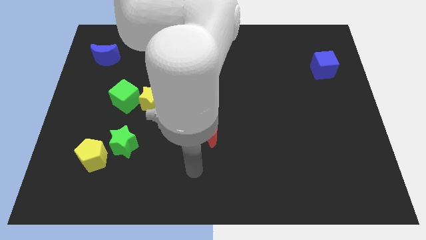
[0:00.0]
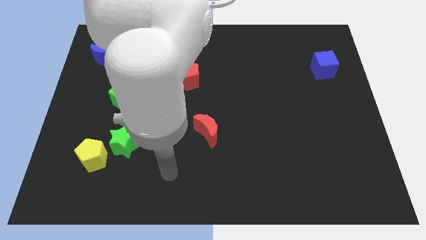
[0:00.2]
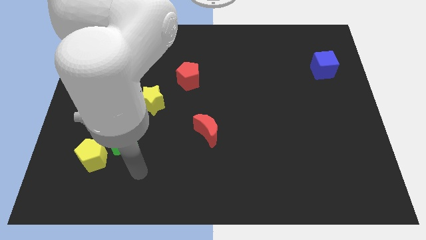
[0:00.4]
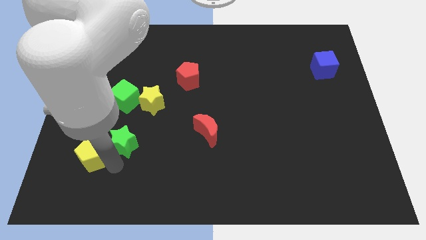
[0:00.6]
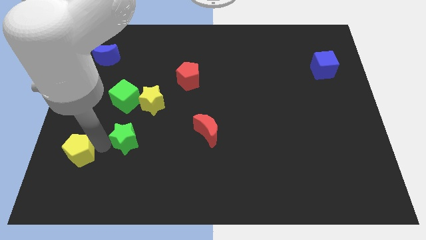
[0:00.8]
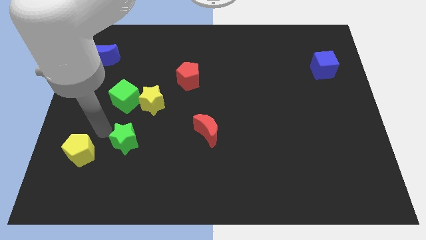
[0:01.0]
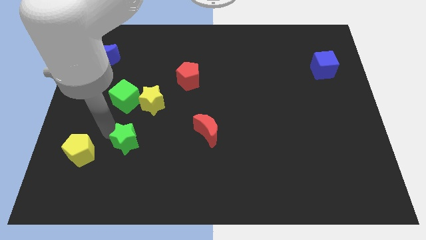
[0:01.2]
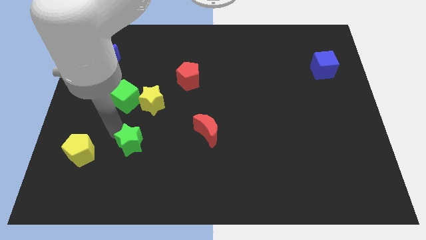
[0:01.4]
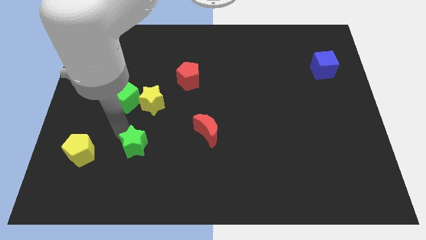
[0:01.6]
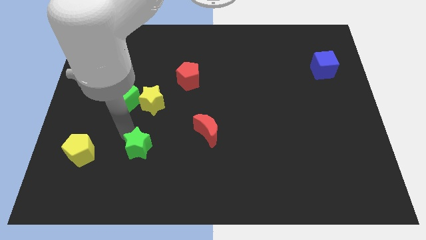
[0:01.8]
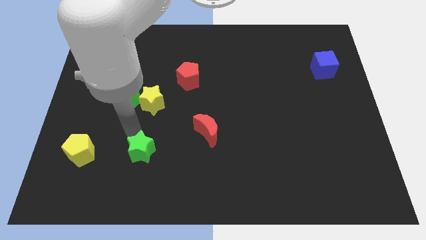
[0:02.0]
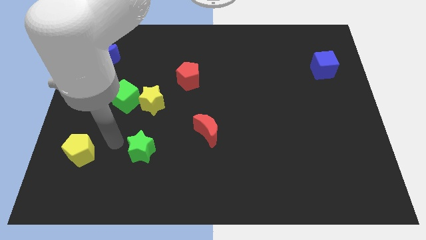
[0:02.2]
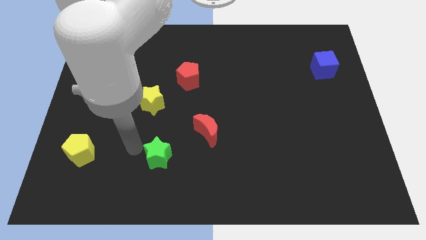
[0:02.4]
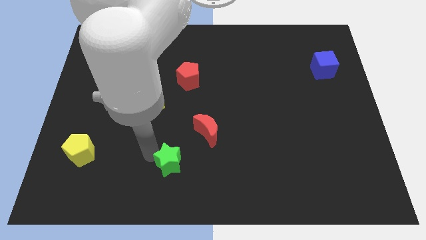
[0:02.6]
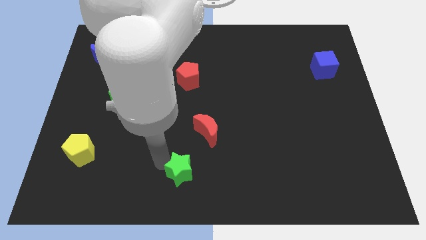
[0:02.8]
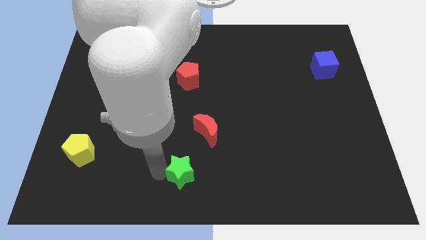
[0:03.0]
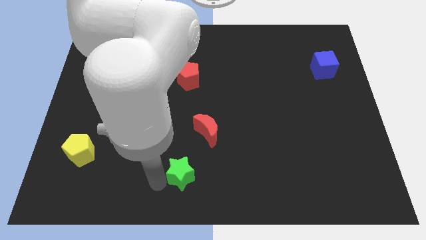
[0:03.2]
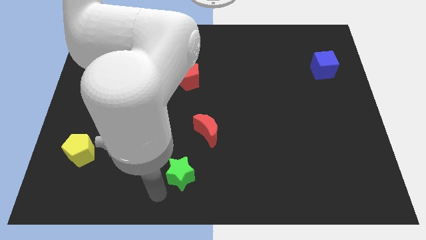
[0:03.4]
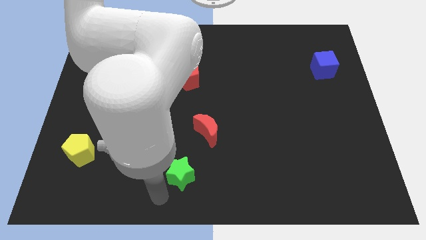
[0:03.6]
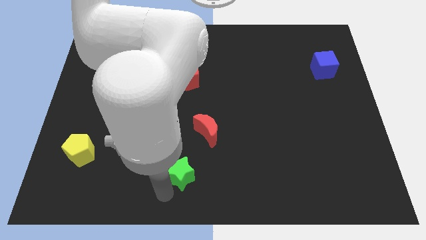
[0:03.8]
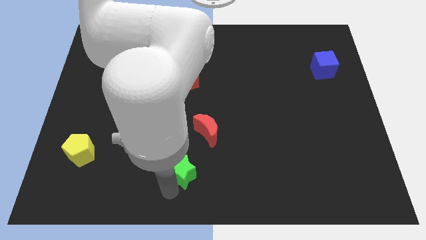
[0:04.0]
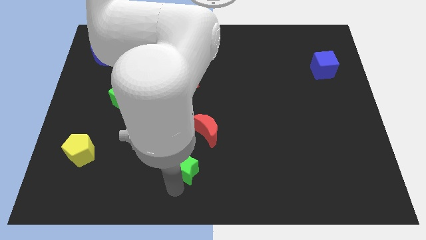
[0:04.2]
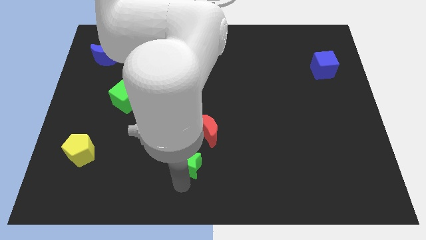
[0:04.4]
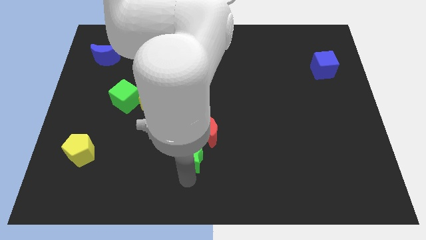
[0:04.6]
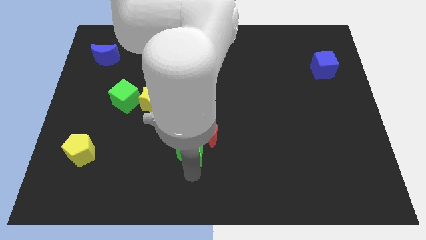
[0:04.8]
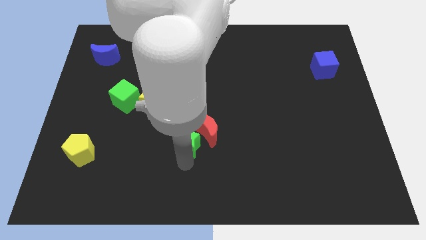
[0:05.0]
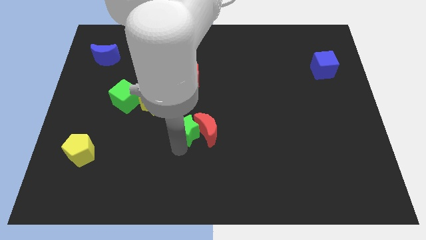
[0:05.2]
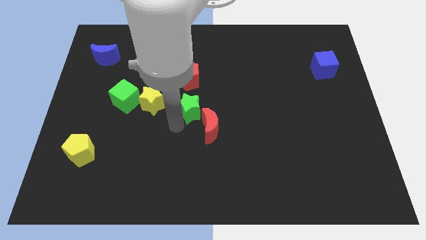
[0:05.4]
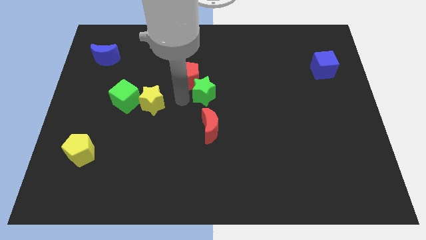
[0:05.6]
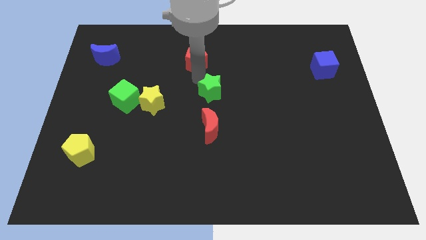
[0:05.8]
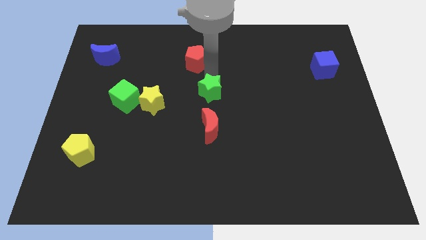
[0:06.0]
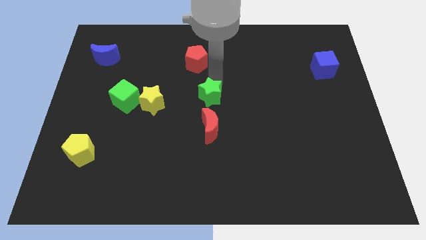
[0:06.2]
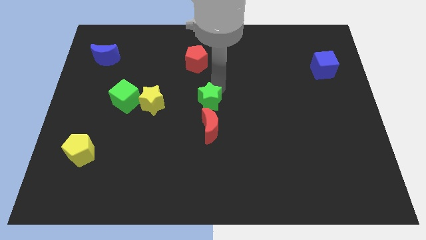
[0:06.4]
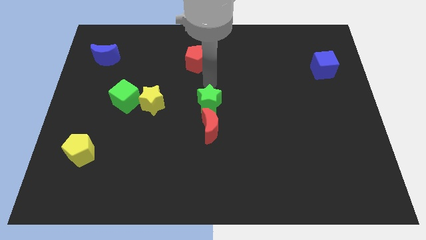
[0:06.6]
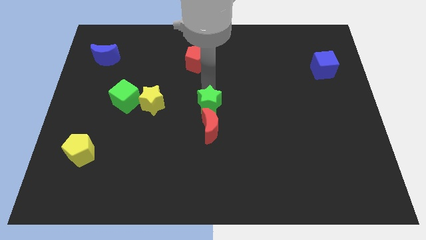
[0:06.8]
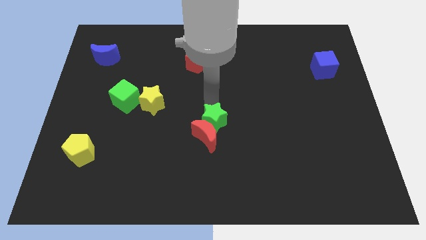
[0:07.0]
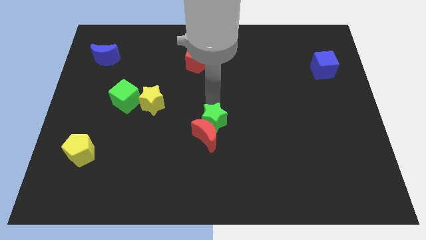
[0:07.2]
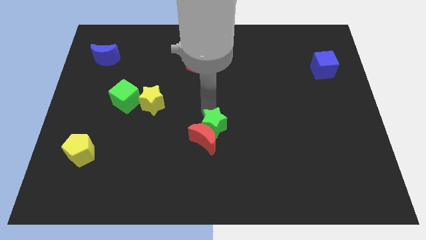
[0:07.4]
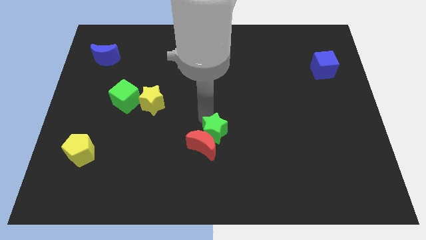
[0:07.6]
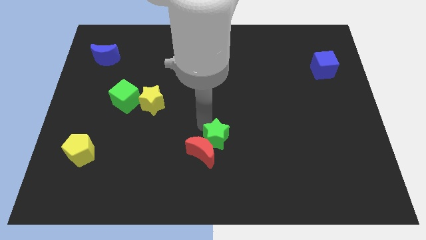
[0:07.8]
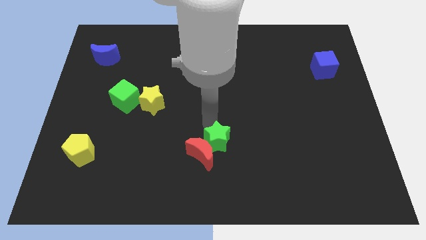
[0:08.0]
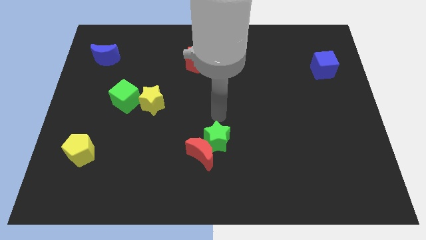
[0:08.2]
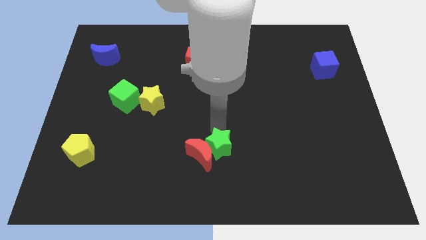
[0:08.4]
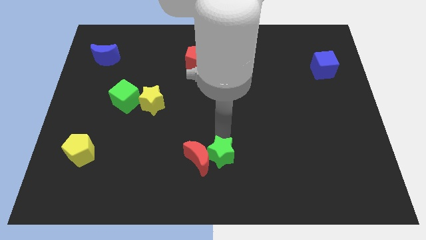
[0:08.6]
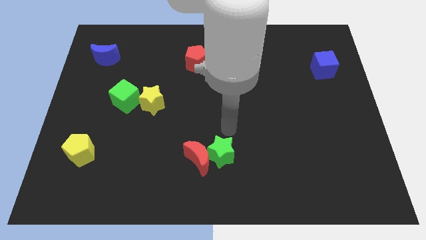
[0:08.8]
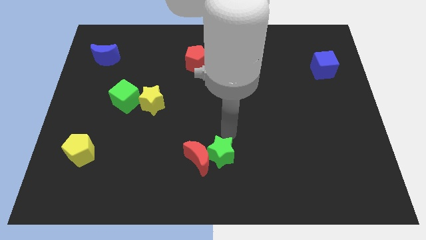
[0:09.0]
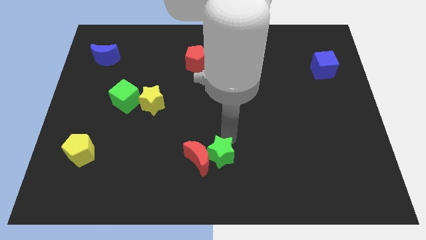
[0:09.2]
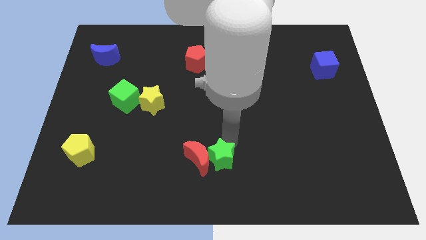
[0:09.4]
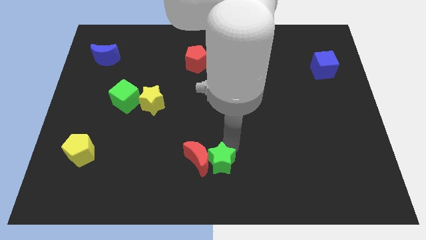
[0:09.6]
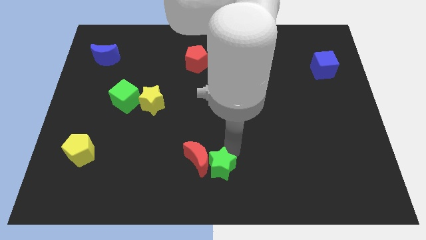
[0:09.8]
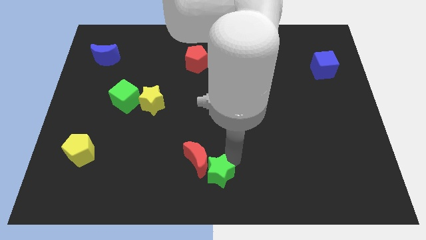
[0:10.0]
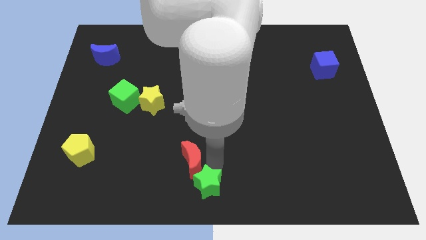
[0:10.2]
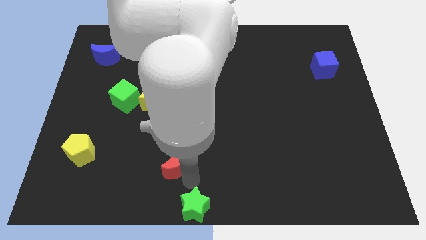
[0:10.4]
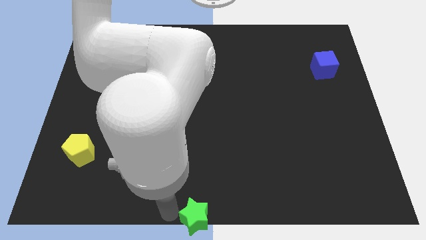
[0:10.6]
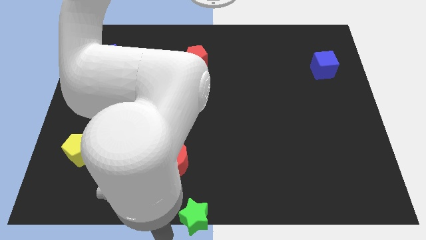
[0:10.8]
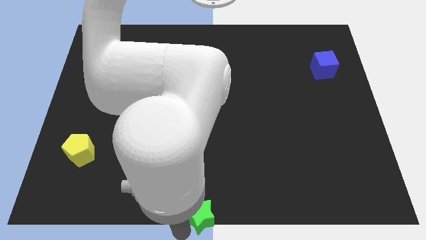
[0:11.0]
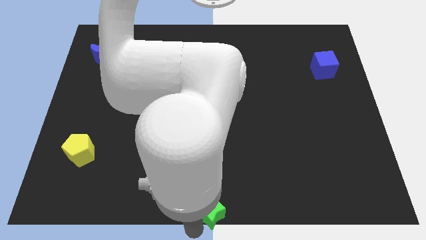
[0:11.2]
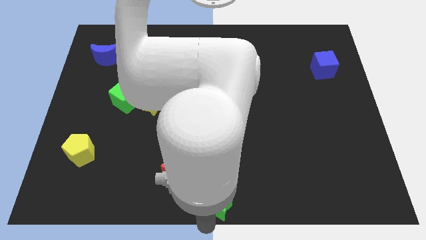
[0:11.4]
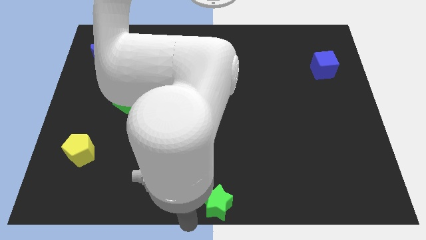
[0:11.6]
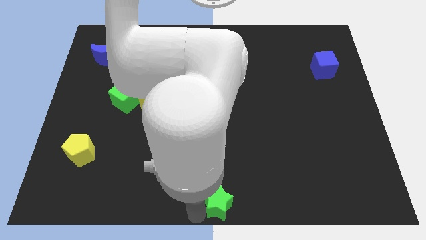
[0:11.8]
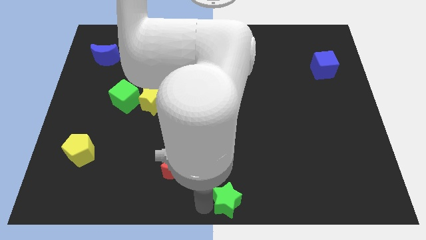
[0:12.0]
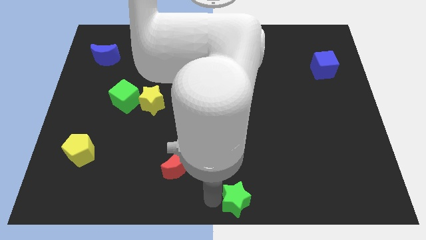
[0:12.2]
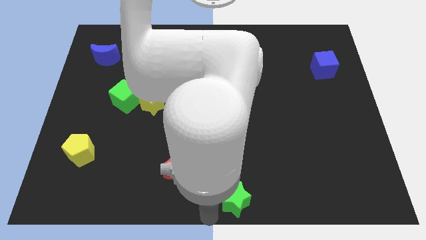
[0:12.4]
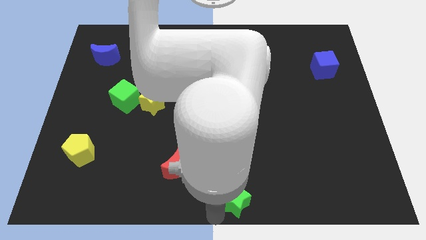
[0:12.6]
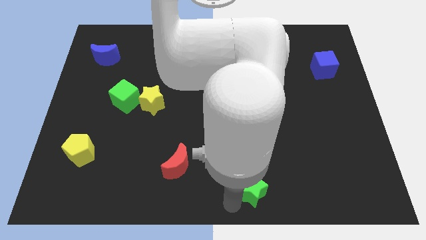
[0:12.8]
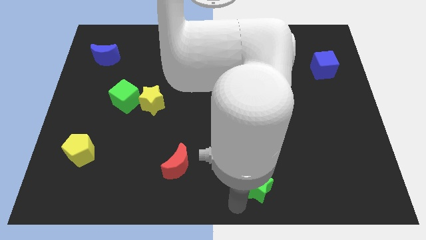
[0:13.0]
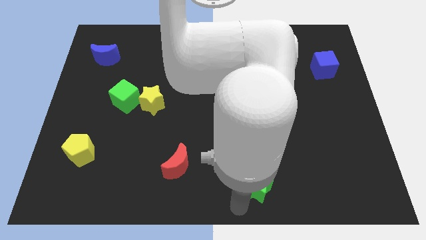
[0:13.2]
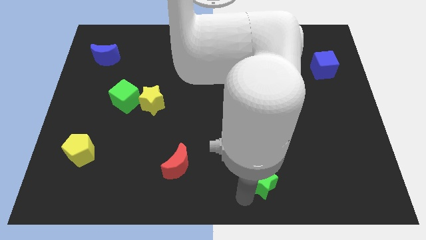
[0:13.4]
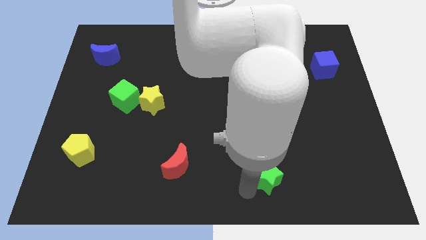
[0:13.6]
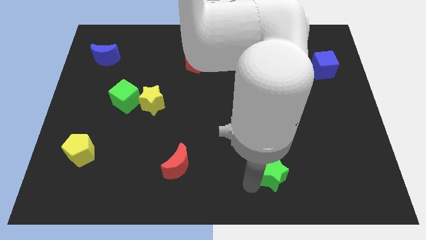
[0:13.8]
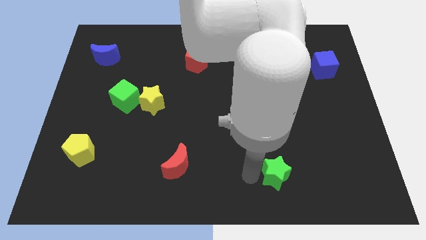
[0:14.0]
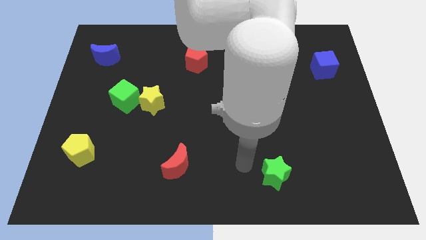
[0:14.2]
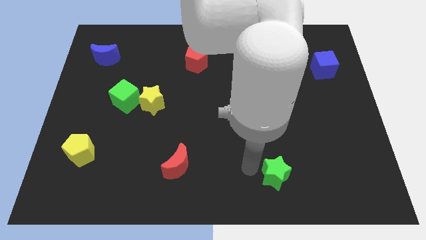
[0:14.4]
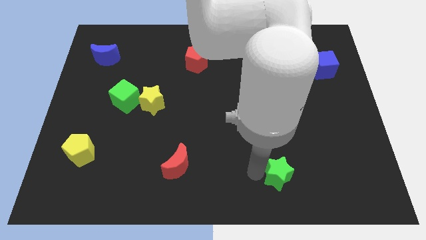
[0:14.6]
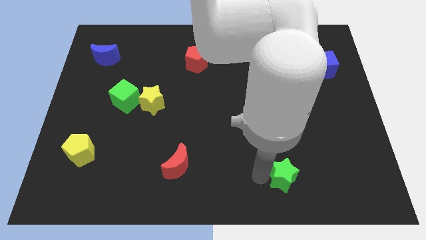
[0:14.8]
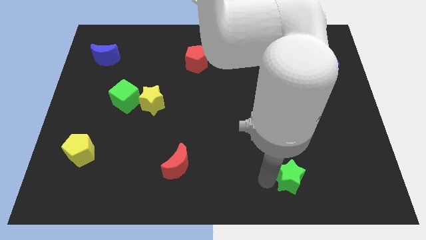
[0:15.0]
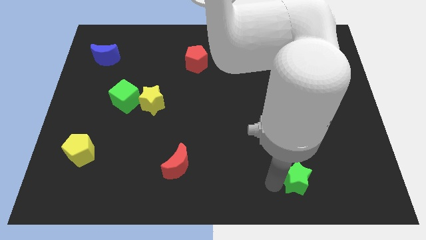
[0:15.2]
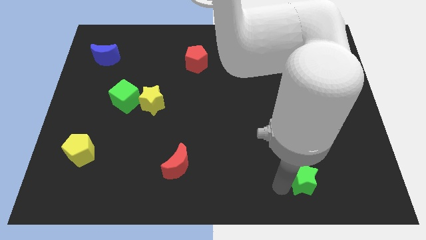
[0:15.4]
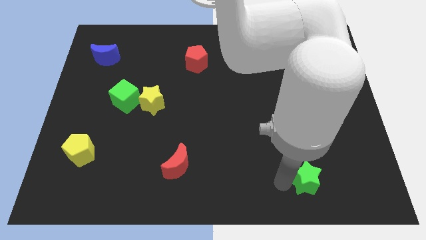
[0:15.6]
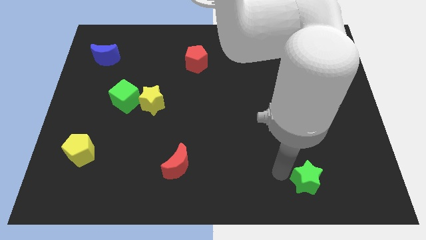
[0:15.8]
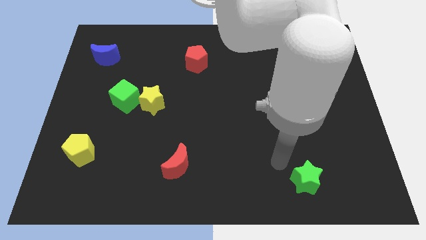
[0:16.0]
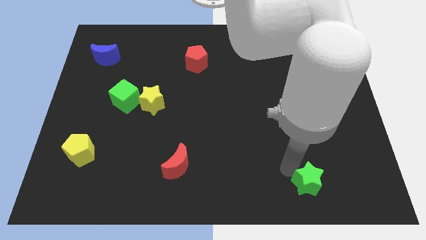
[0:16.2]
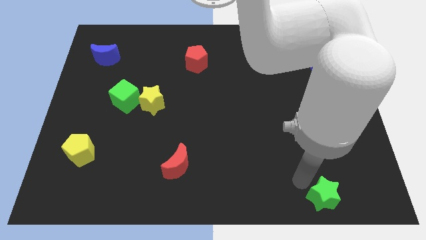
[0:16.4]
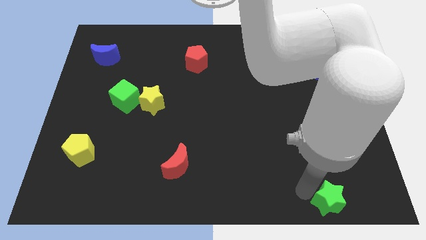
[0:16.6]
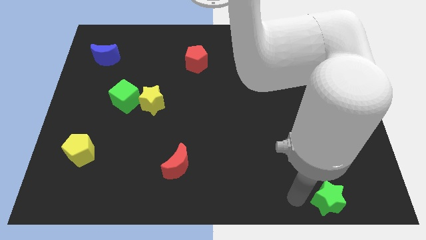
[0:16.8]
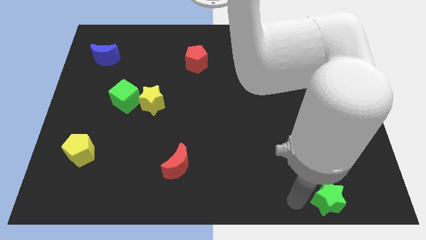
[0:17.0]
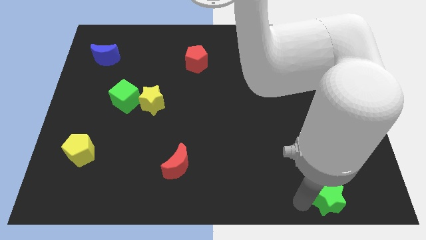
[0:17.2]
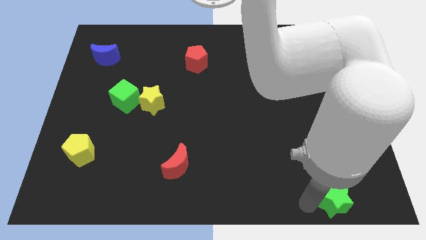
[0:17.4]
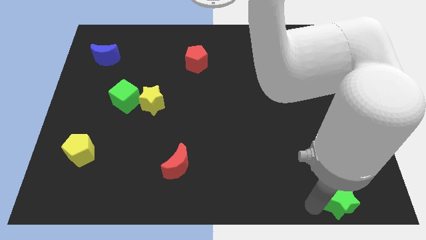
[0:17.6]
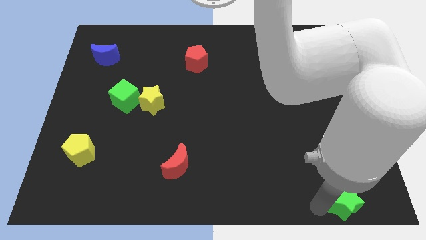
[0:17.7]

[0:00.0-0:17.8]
move the green star to the bottom right
